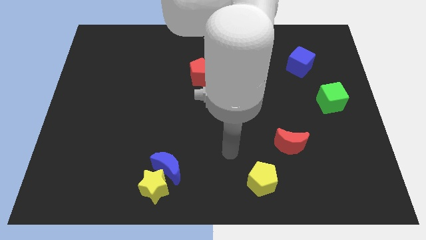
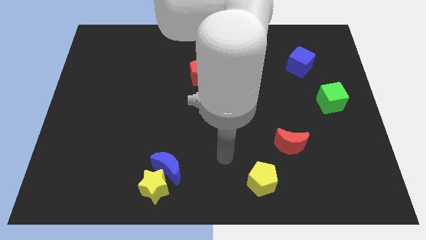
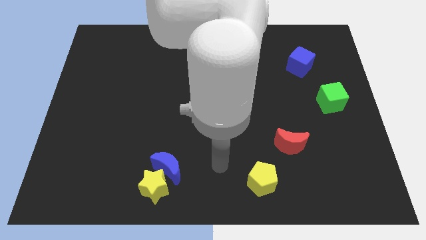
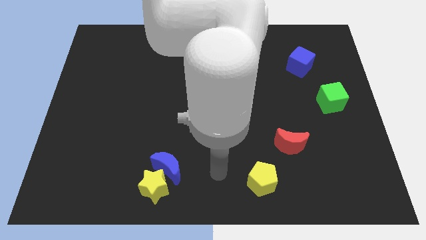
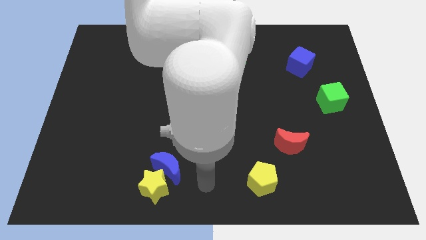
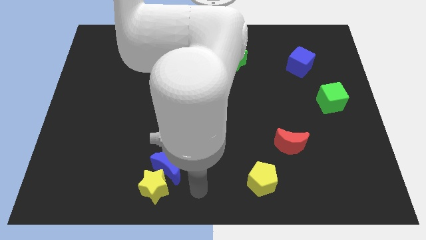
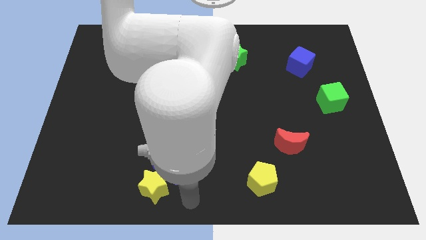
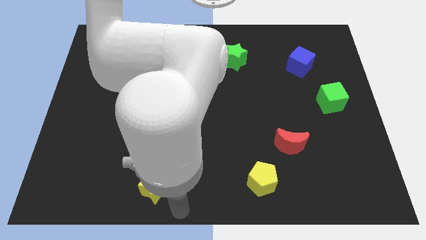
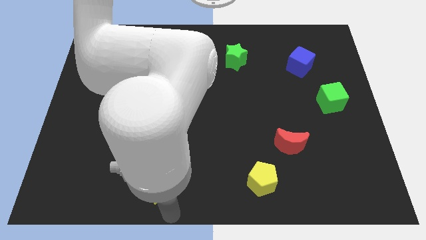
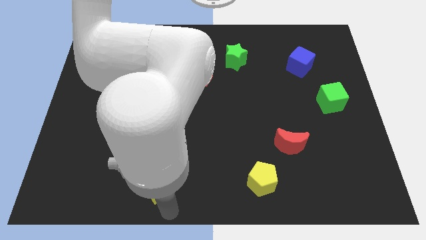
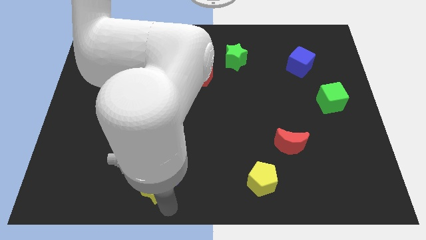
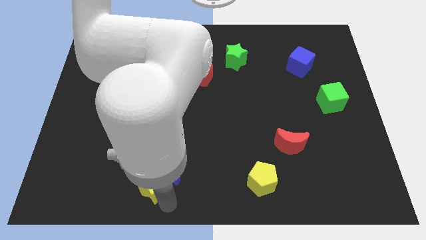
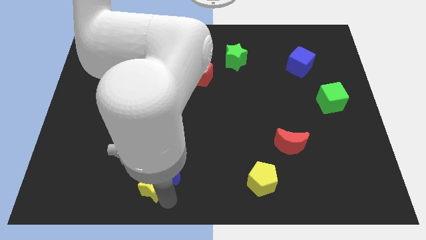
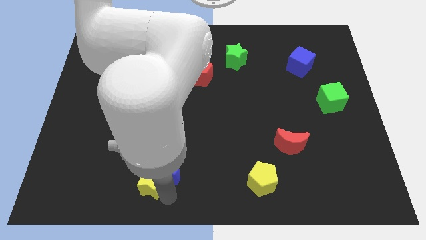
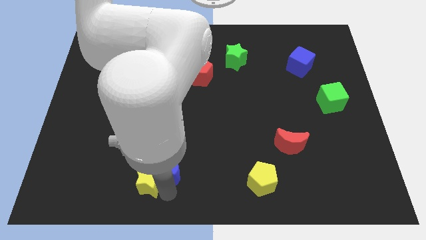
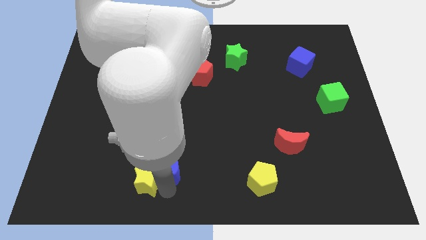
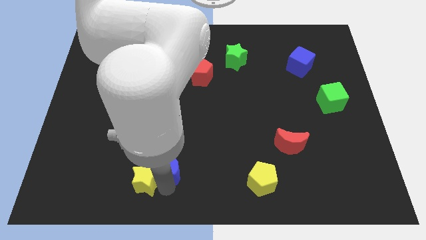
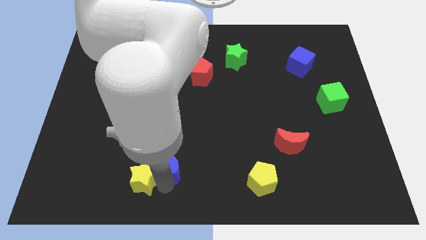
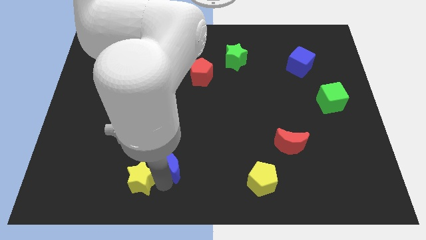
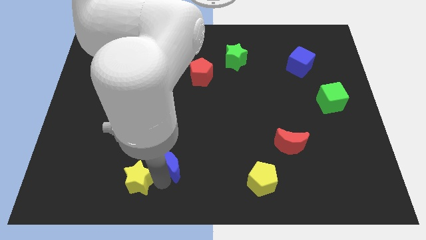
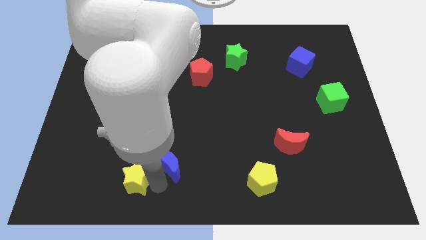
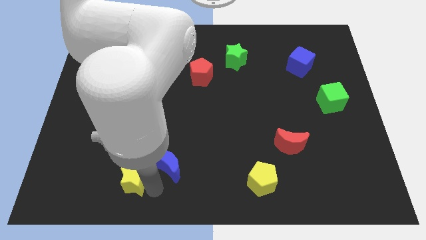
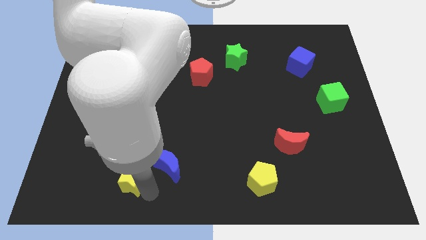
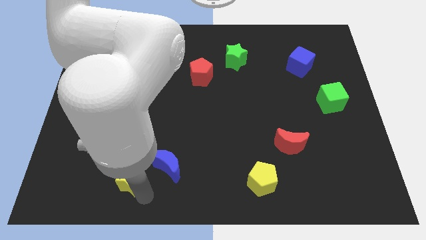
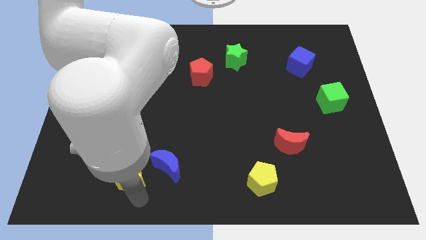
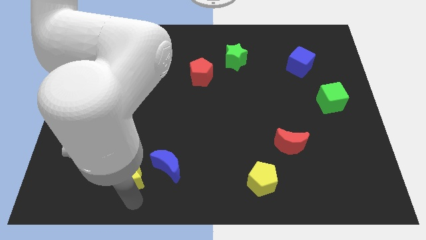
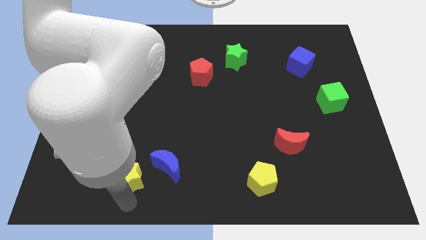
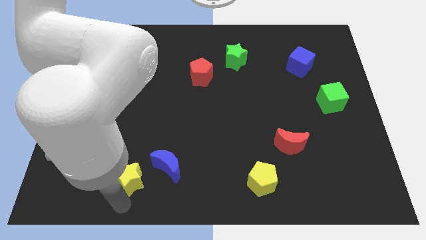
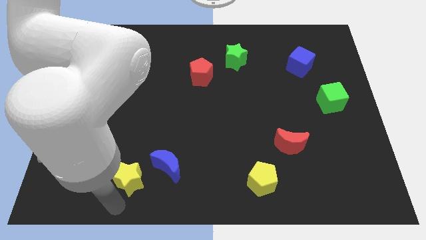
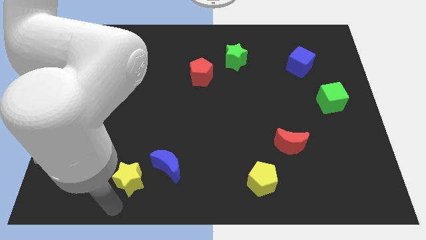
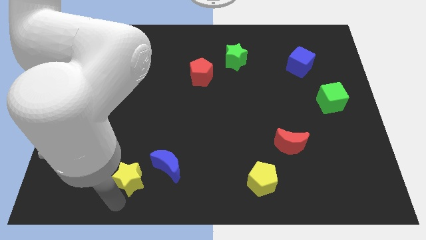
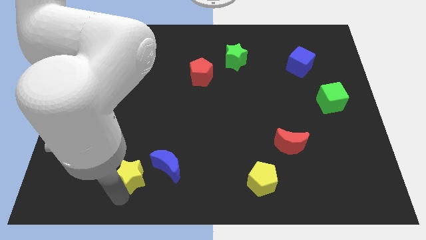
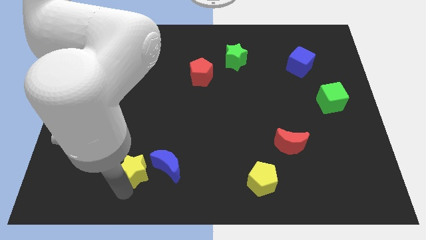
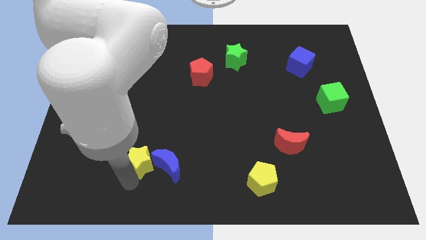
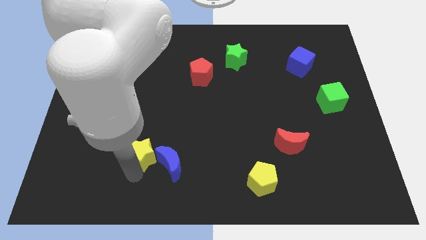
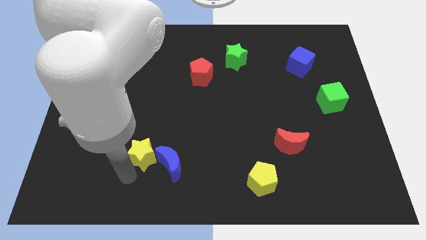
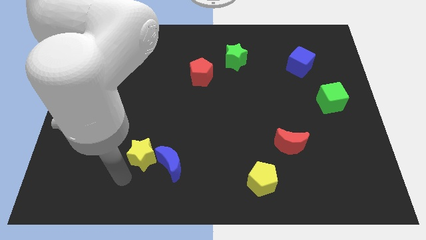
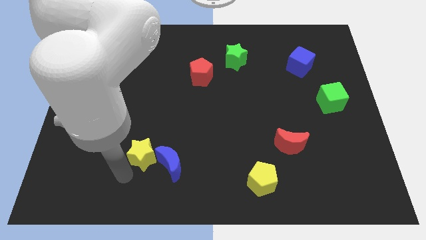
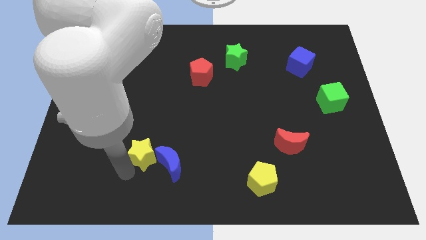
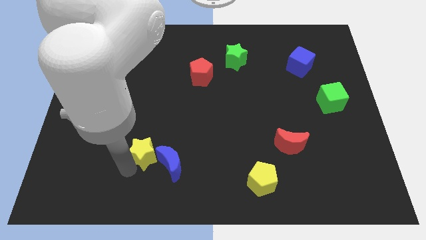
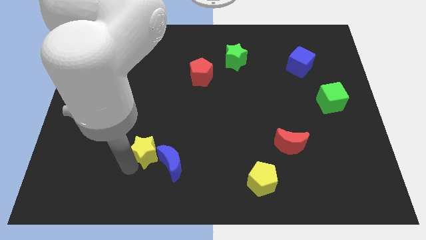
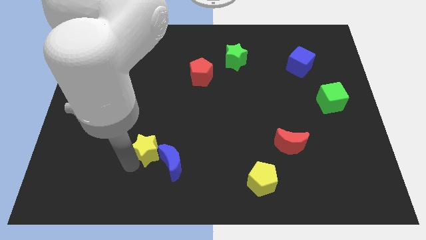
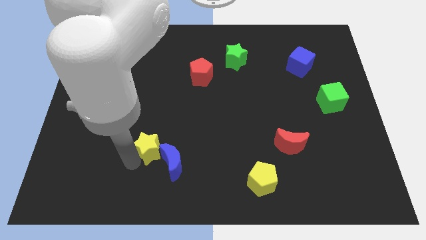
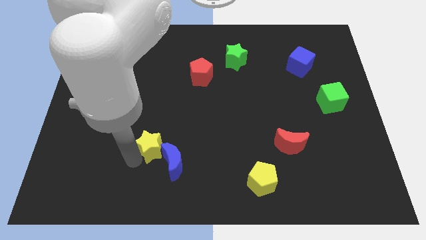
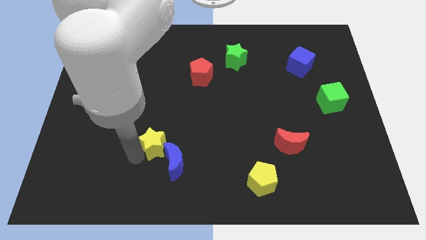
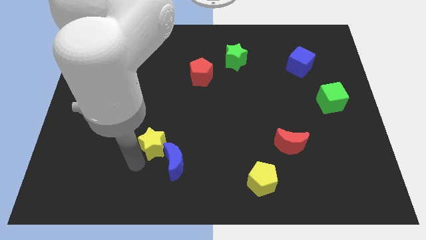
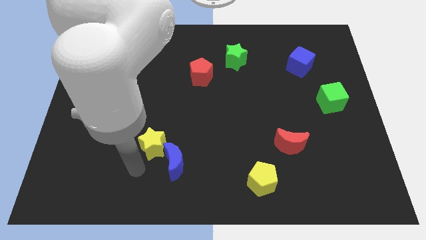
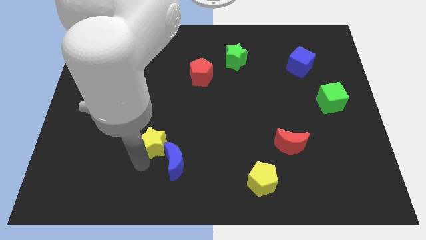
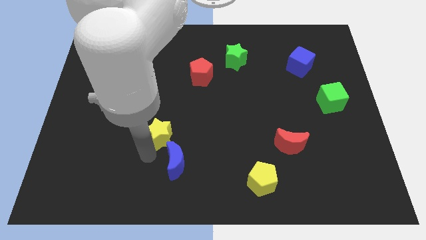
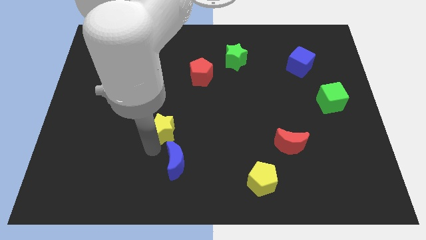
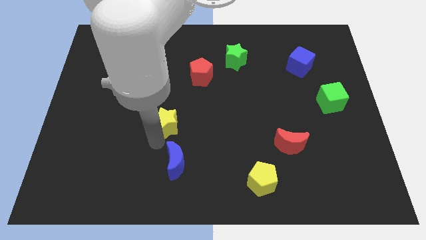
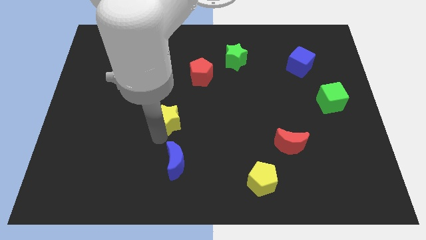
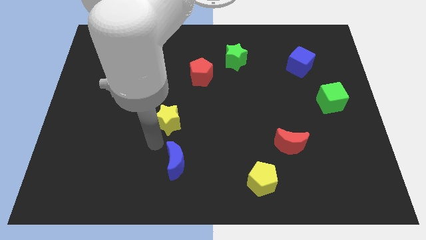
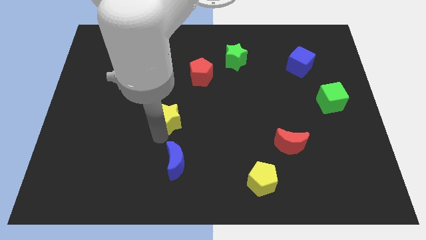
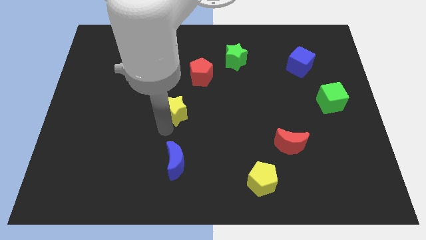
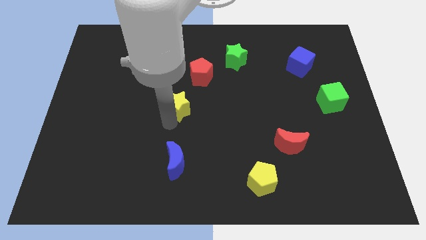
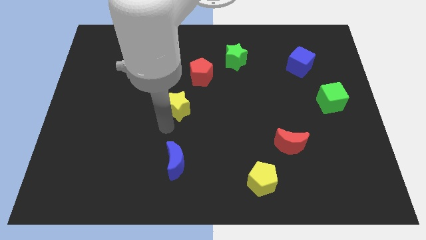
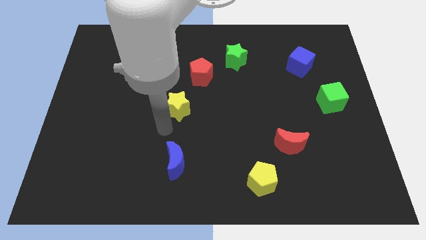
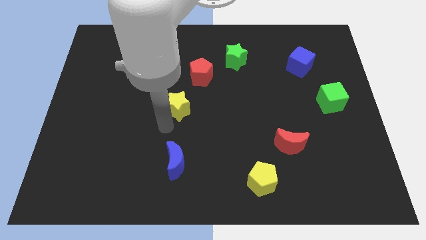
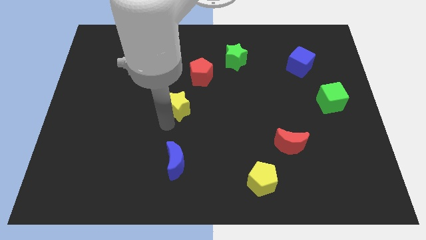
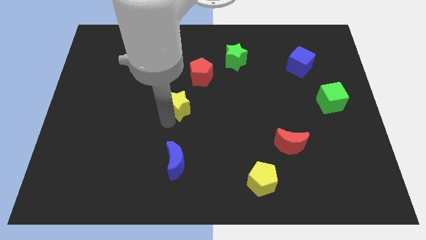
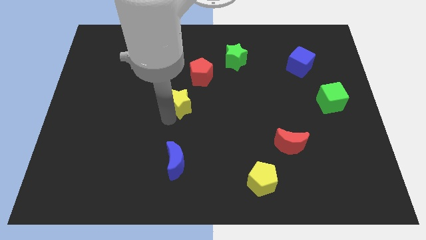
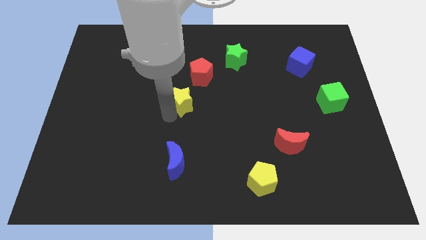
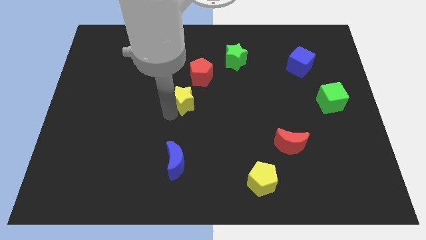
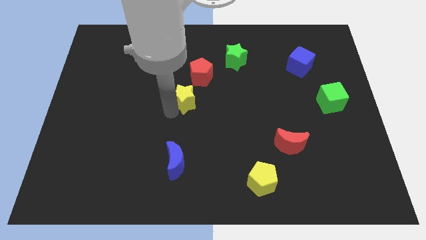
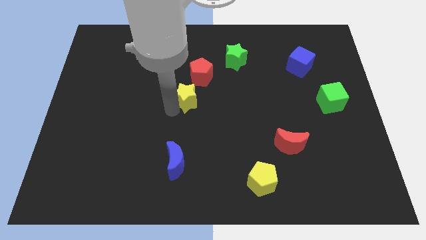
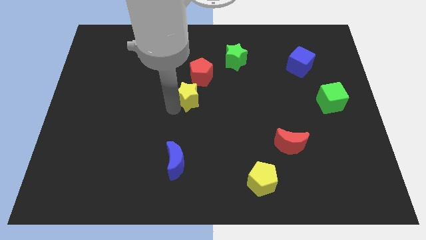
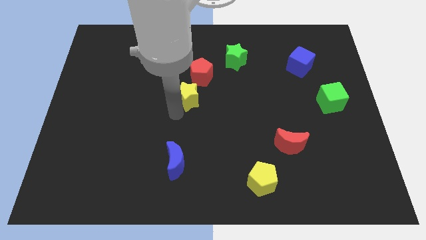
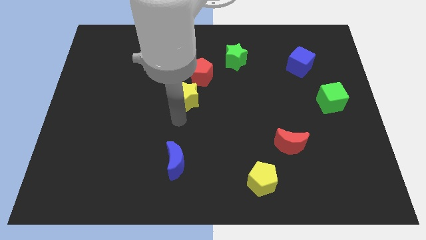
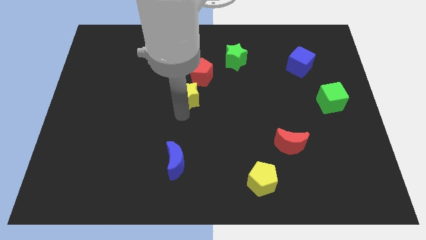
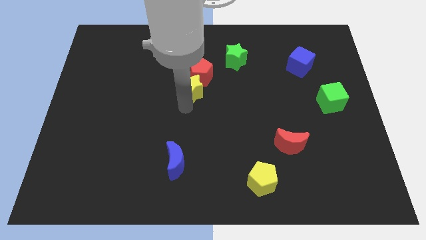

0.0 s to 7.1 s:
move the yellow star to the red pentagon

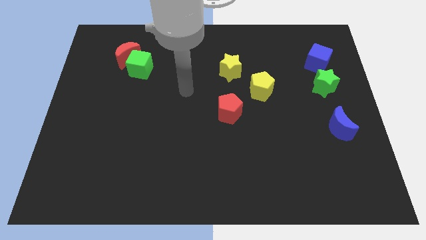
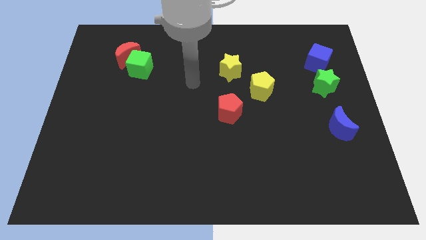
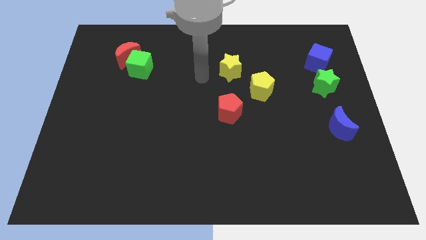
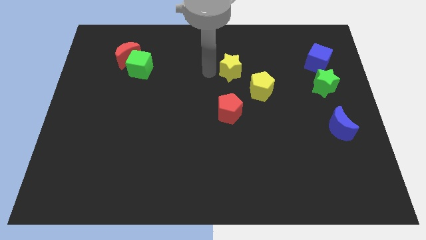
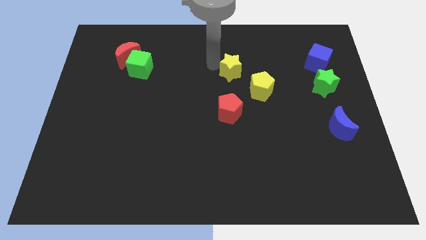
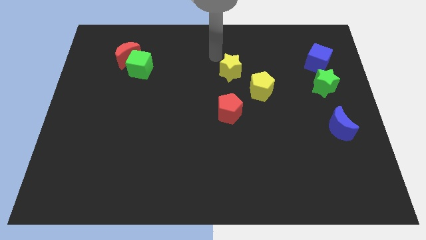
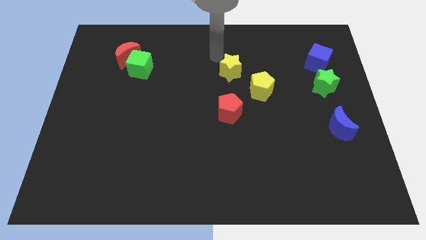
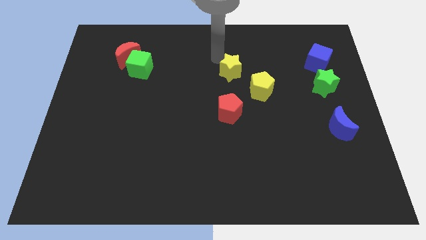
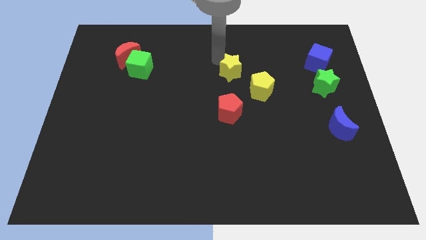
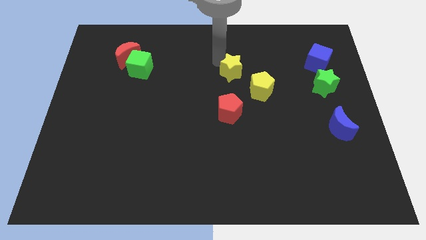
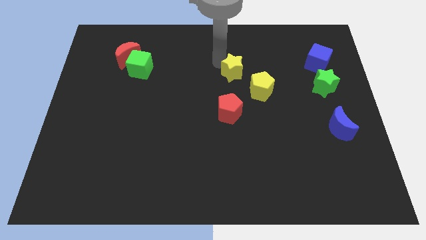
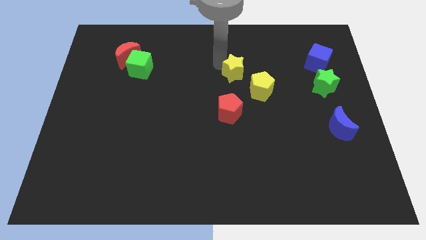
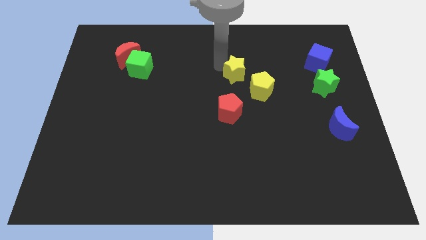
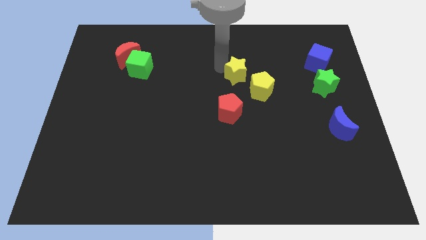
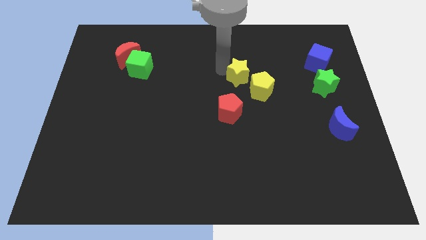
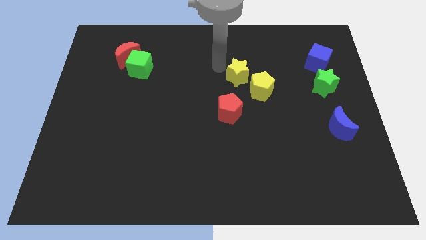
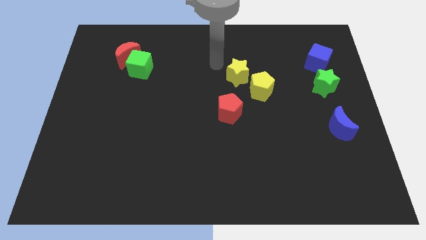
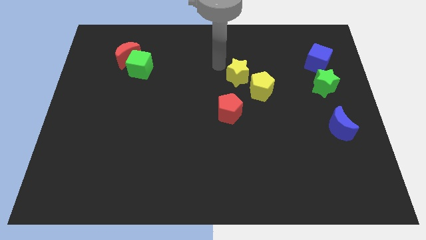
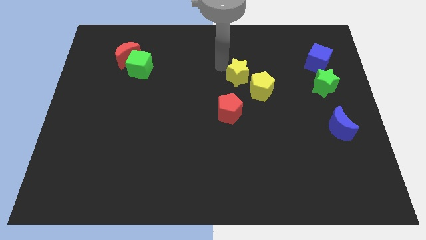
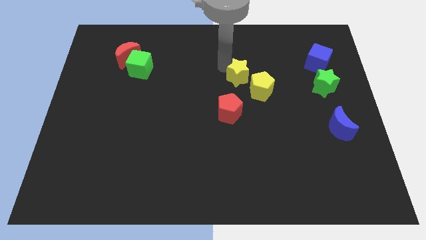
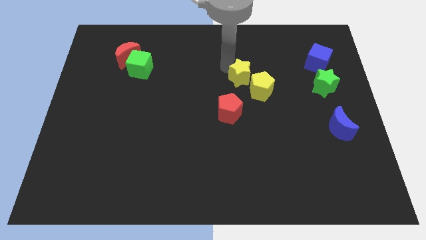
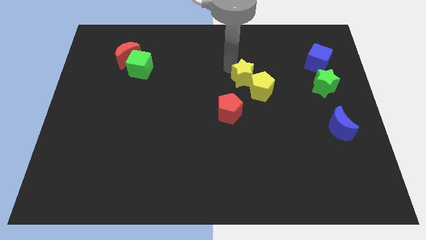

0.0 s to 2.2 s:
slide the yellow star to the yellow pentagon
